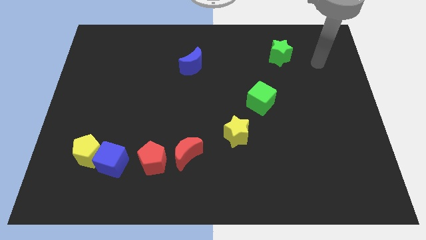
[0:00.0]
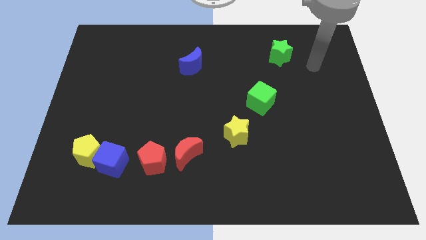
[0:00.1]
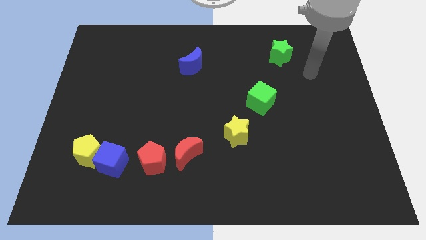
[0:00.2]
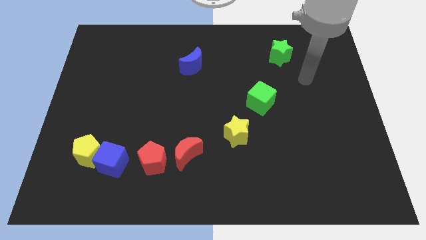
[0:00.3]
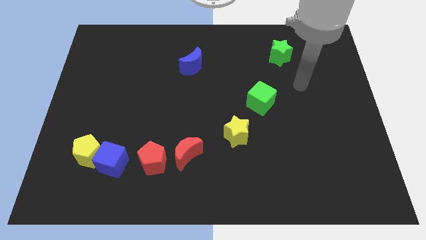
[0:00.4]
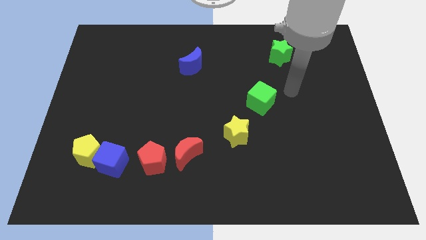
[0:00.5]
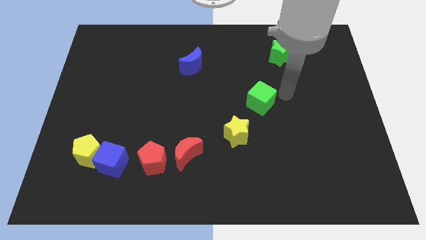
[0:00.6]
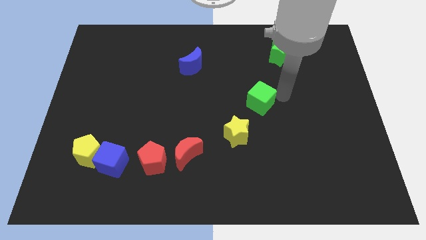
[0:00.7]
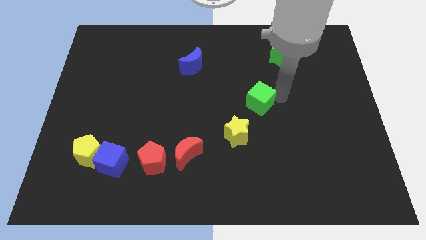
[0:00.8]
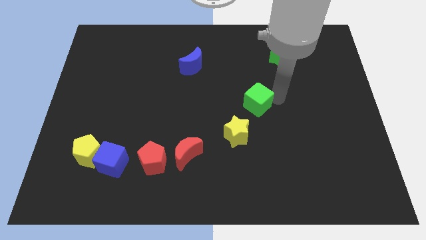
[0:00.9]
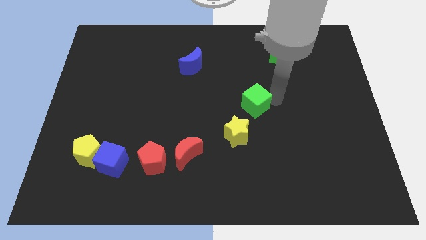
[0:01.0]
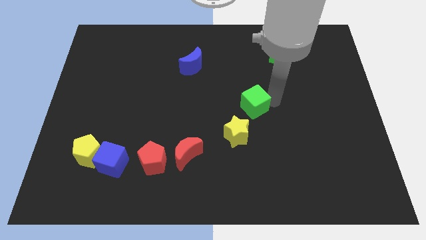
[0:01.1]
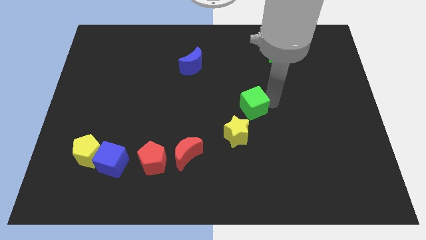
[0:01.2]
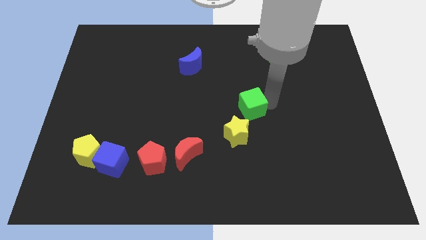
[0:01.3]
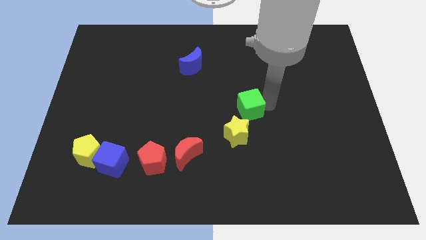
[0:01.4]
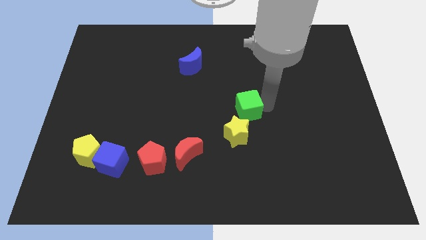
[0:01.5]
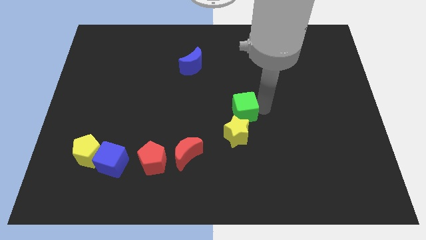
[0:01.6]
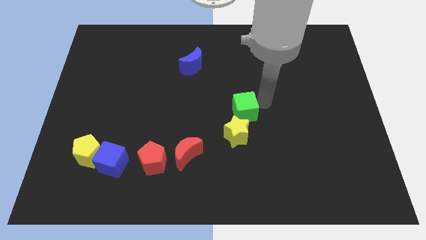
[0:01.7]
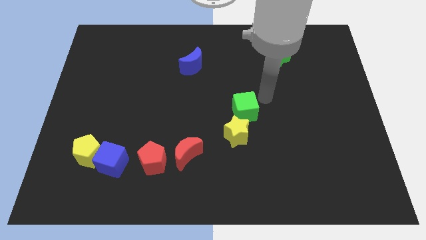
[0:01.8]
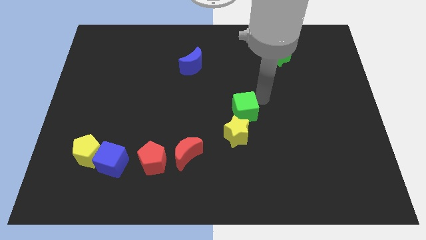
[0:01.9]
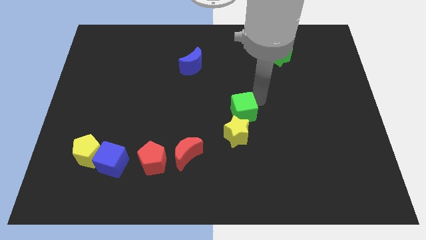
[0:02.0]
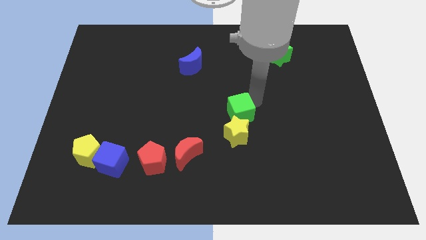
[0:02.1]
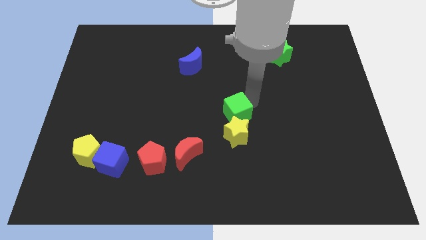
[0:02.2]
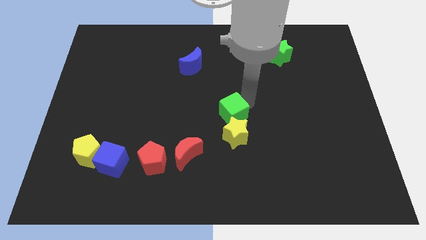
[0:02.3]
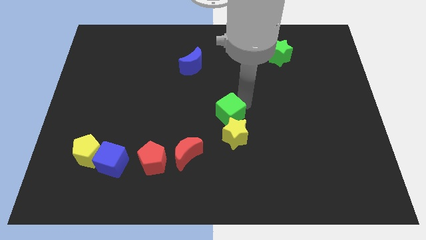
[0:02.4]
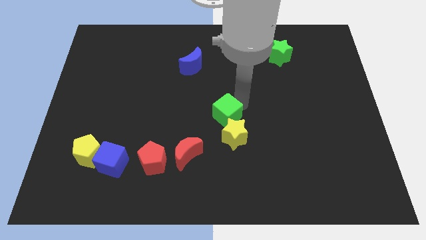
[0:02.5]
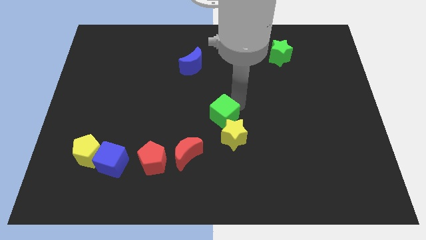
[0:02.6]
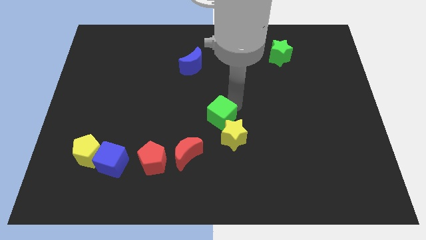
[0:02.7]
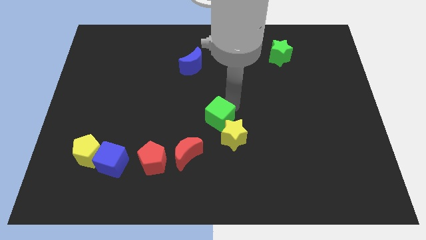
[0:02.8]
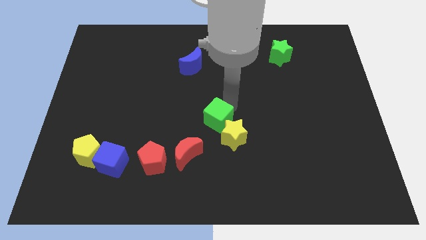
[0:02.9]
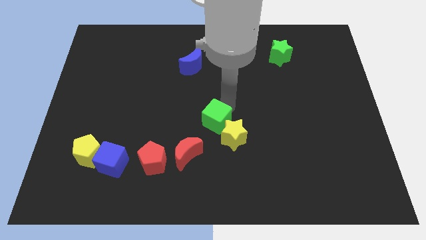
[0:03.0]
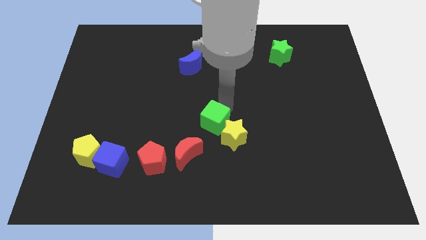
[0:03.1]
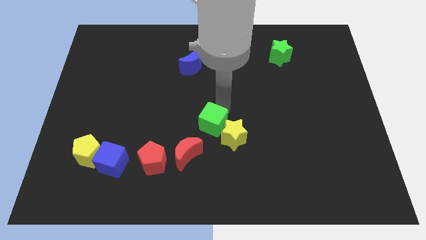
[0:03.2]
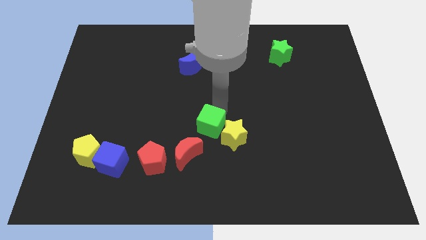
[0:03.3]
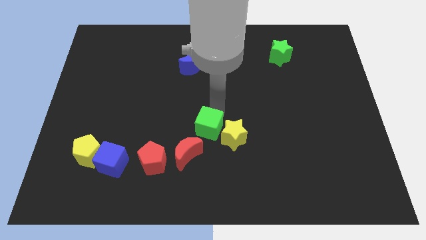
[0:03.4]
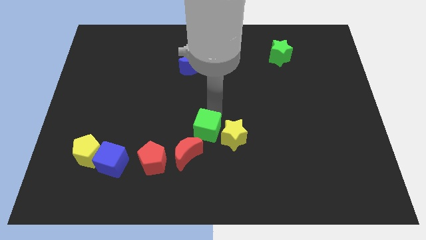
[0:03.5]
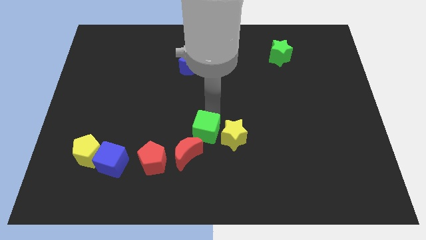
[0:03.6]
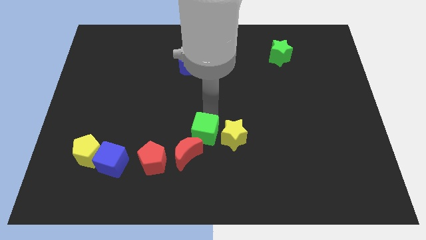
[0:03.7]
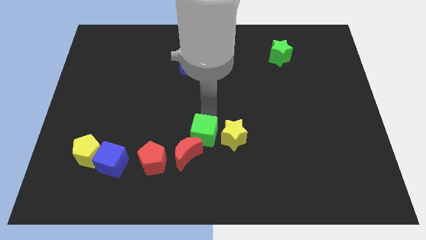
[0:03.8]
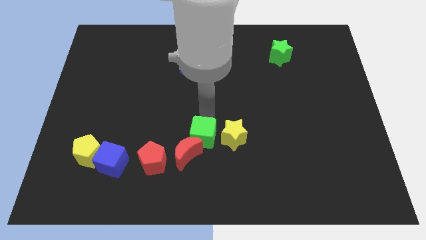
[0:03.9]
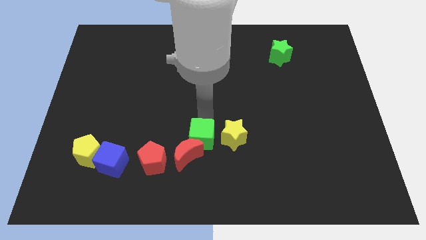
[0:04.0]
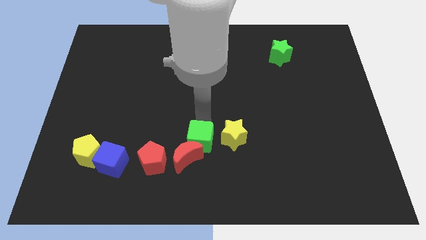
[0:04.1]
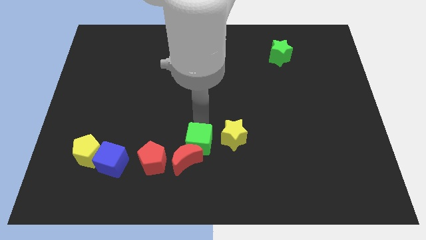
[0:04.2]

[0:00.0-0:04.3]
push the green cube to the right side of the red pentagon

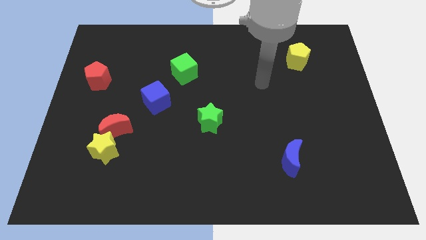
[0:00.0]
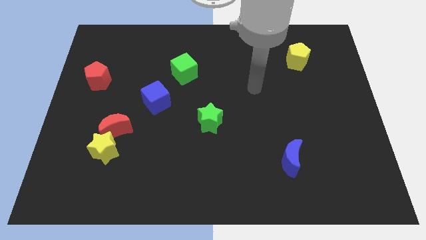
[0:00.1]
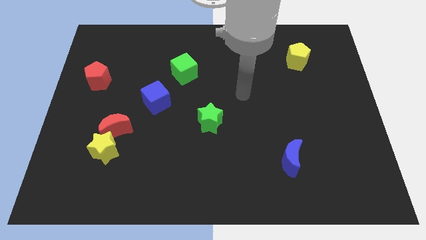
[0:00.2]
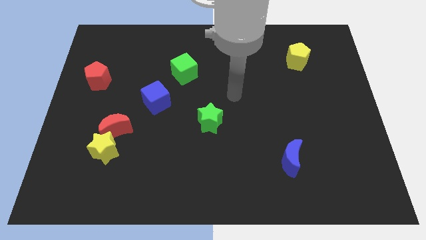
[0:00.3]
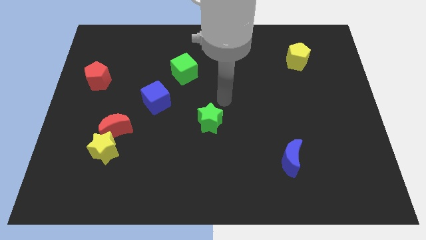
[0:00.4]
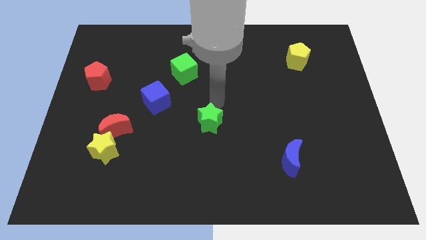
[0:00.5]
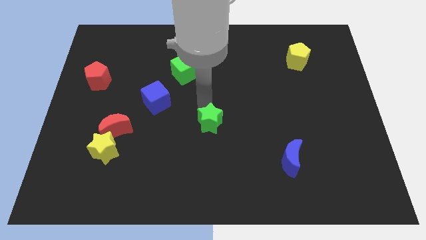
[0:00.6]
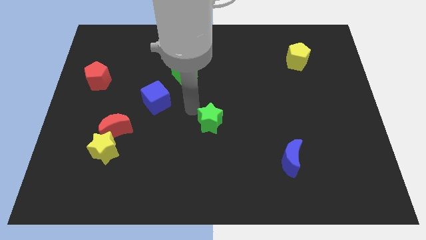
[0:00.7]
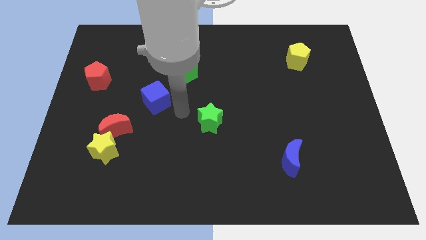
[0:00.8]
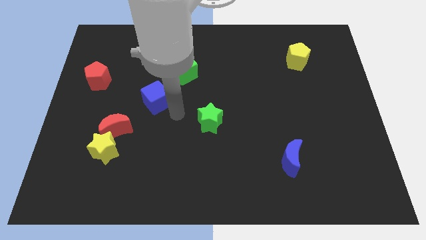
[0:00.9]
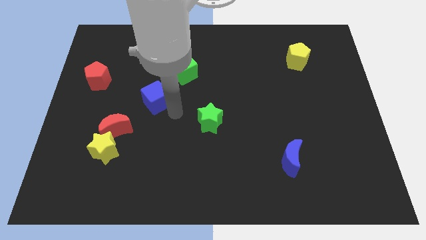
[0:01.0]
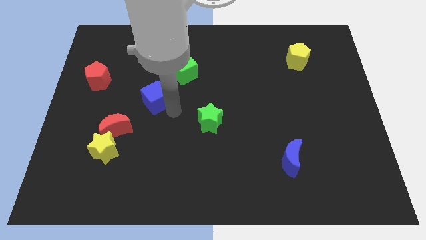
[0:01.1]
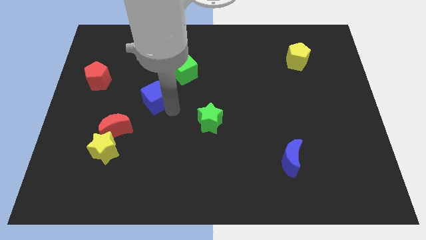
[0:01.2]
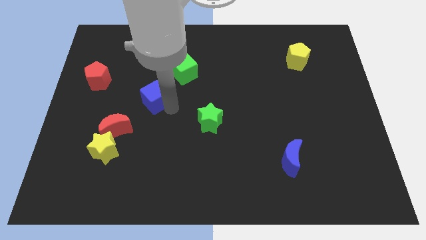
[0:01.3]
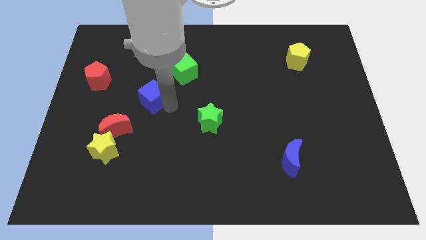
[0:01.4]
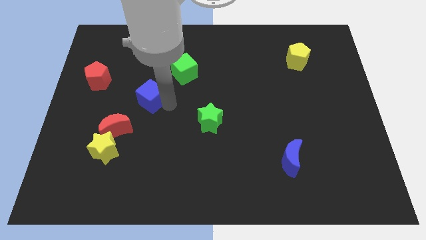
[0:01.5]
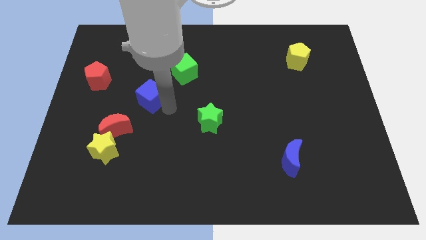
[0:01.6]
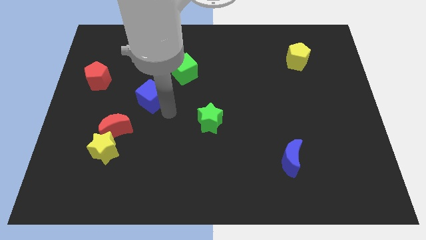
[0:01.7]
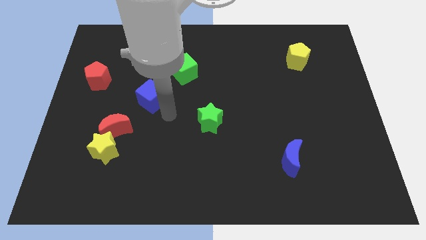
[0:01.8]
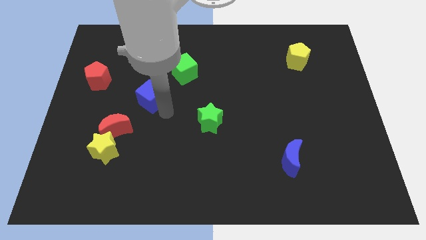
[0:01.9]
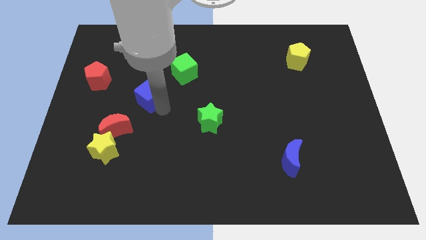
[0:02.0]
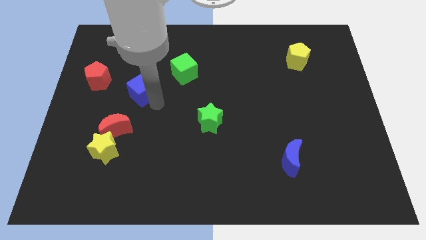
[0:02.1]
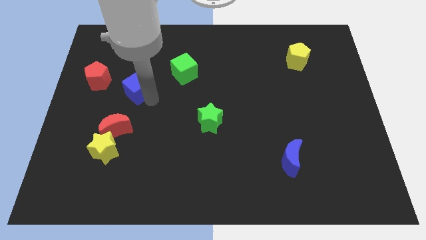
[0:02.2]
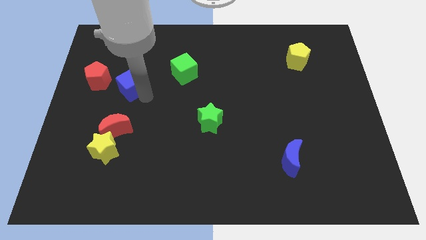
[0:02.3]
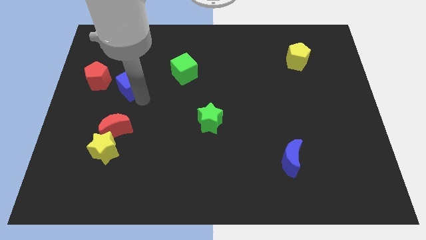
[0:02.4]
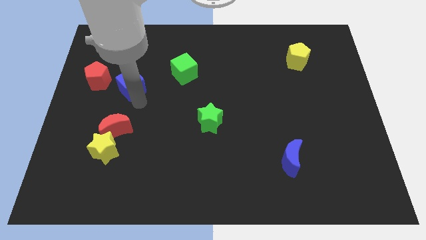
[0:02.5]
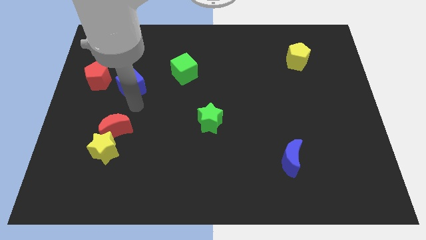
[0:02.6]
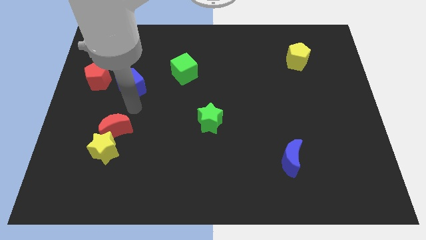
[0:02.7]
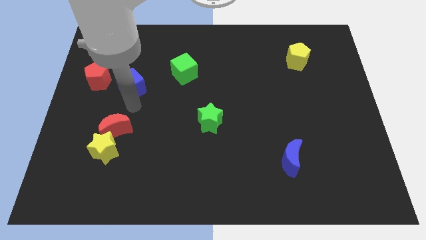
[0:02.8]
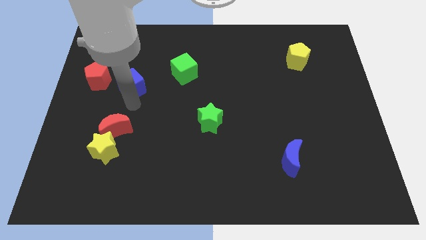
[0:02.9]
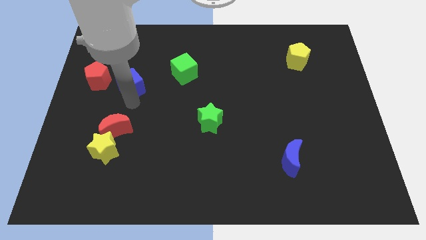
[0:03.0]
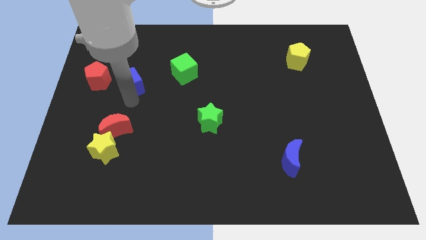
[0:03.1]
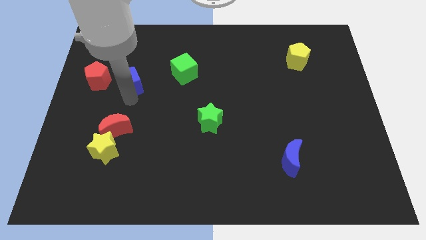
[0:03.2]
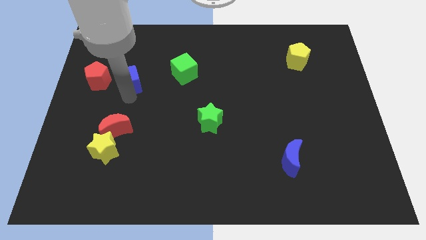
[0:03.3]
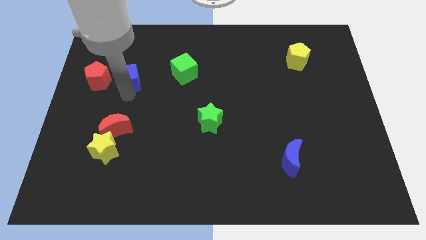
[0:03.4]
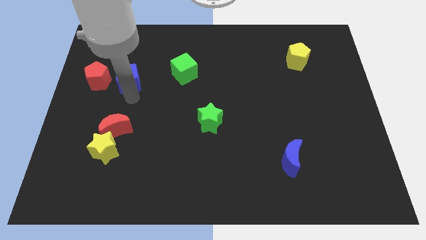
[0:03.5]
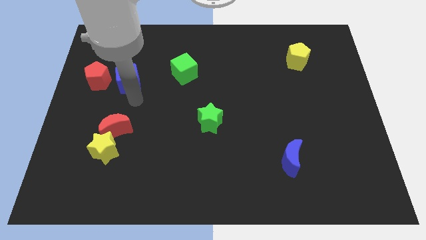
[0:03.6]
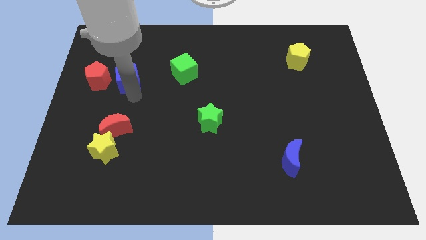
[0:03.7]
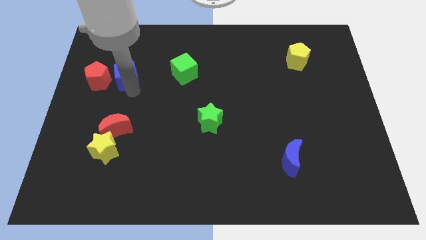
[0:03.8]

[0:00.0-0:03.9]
put the blue cube to the top right side of the red pentagon
